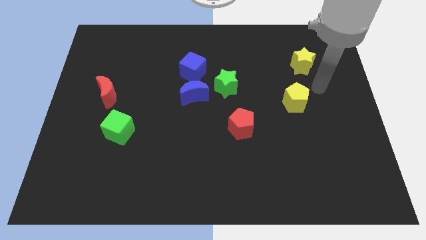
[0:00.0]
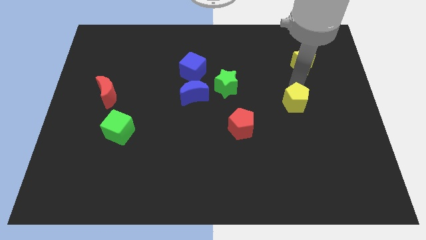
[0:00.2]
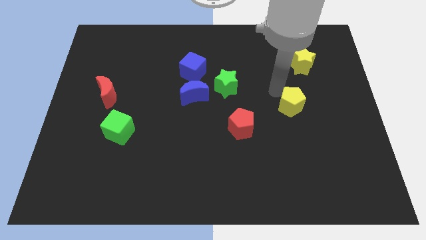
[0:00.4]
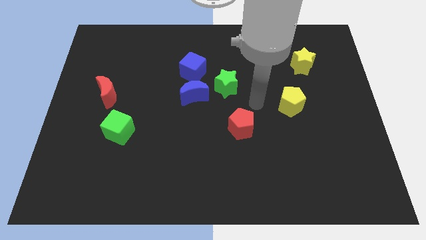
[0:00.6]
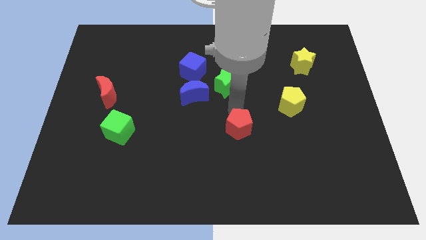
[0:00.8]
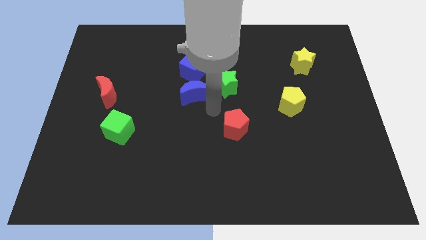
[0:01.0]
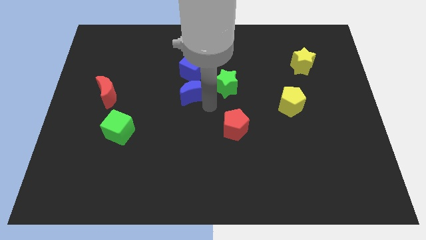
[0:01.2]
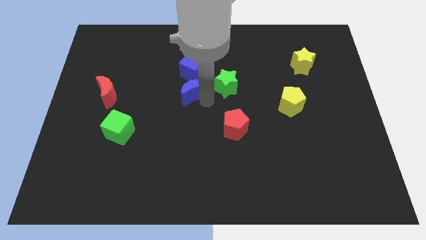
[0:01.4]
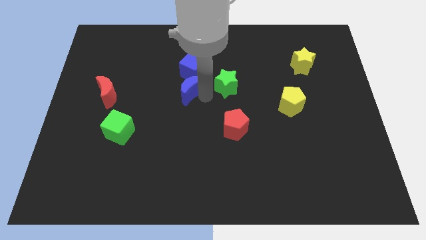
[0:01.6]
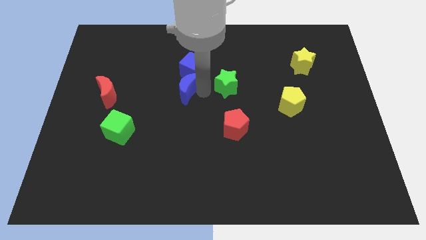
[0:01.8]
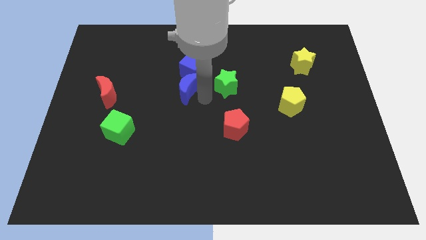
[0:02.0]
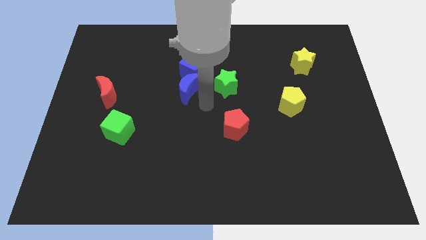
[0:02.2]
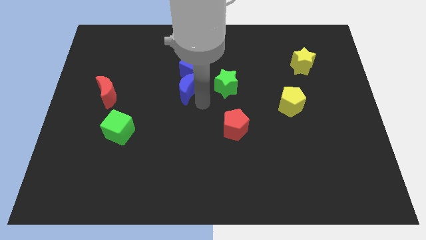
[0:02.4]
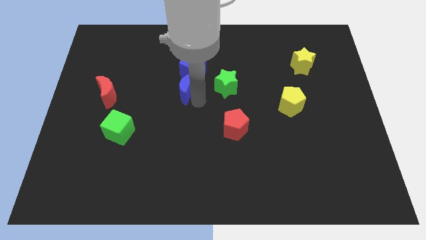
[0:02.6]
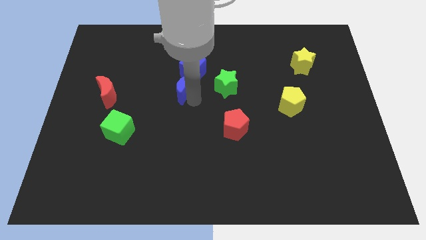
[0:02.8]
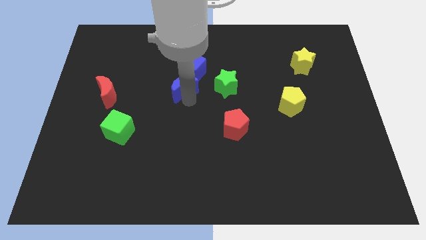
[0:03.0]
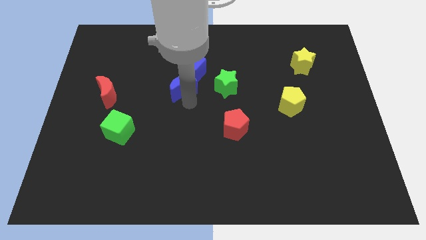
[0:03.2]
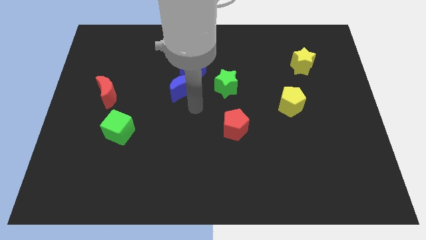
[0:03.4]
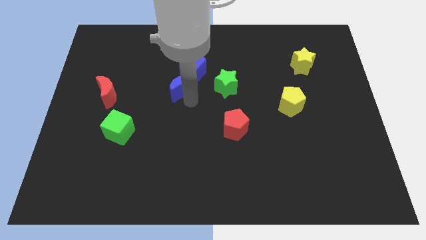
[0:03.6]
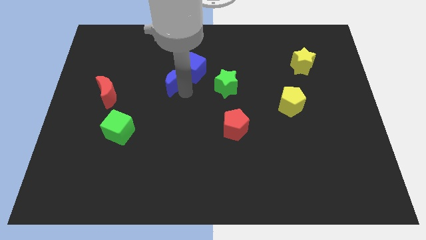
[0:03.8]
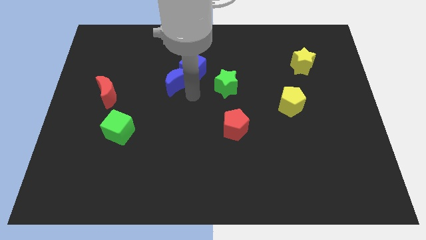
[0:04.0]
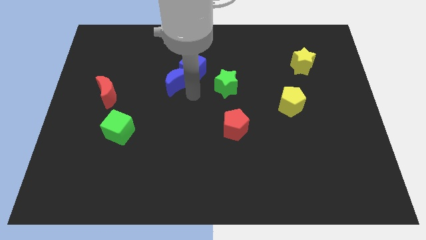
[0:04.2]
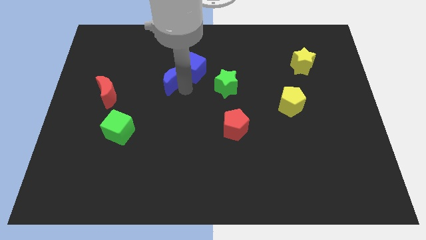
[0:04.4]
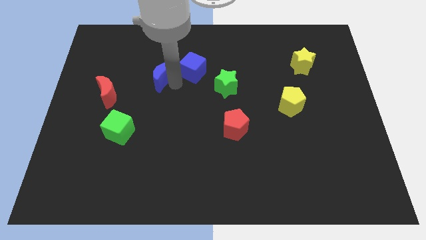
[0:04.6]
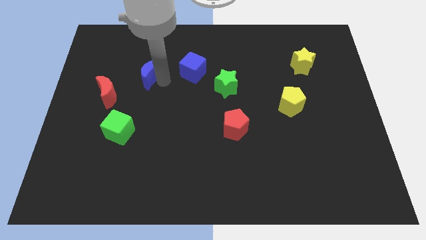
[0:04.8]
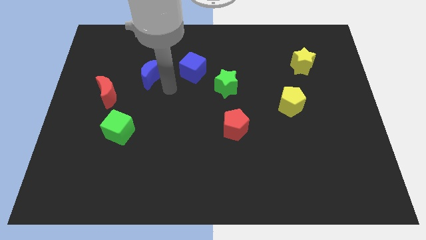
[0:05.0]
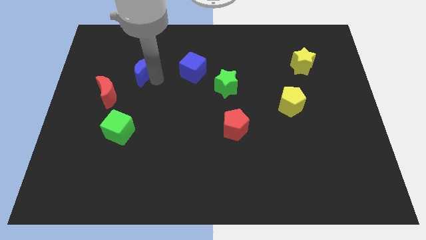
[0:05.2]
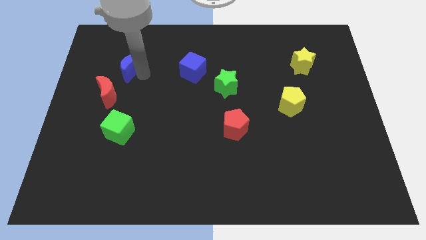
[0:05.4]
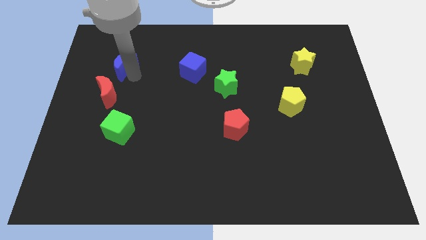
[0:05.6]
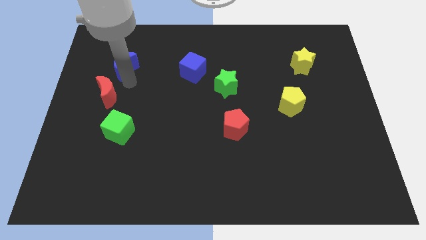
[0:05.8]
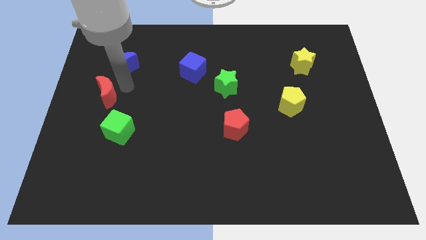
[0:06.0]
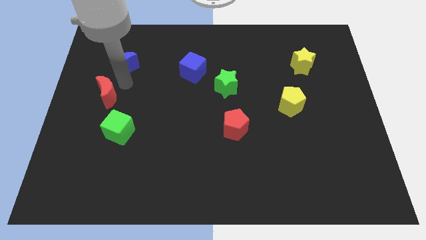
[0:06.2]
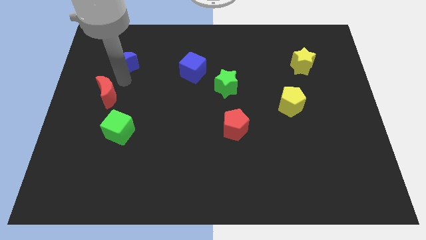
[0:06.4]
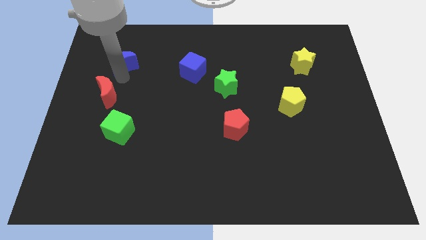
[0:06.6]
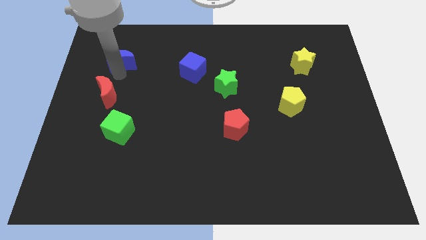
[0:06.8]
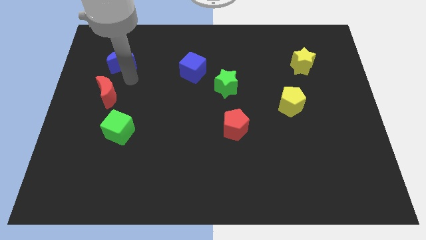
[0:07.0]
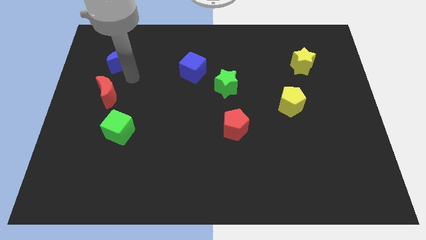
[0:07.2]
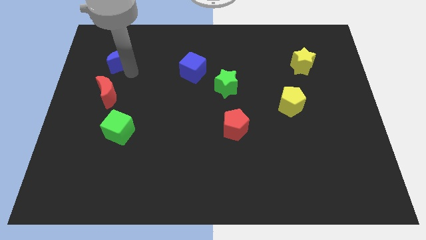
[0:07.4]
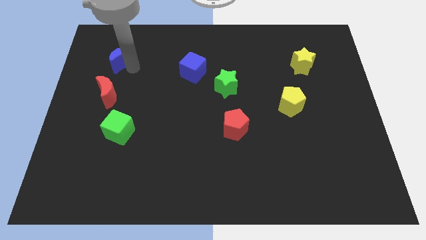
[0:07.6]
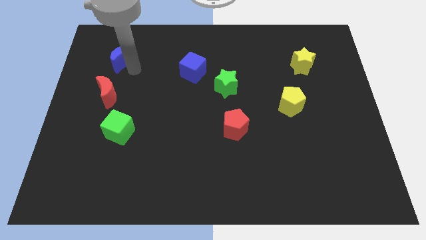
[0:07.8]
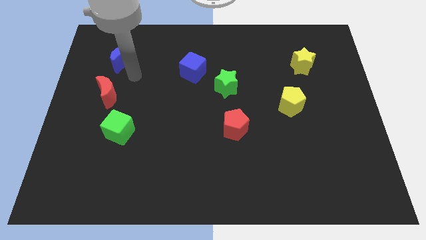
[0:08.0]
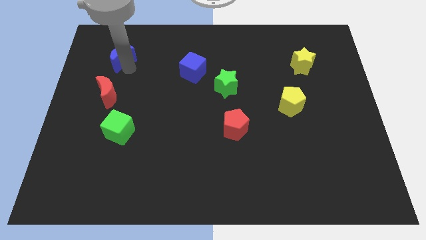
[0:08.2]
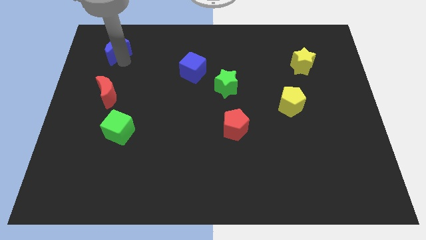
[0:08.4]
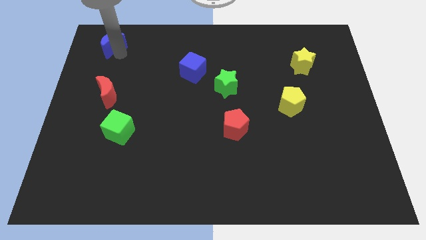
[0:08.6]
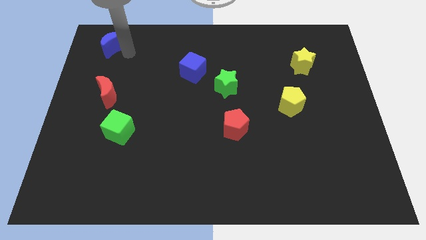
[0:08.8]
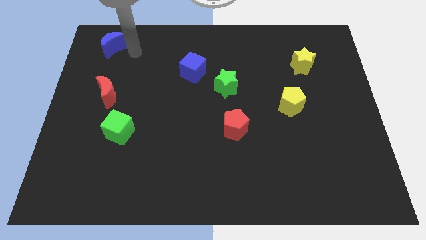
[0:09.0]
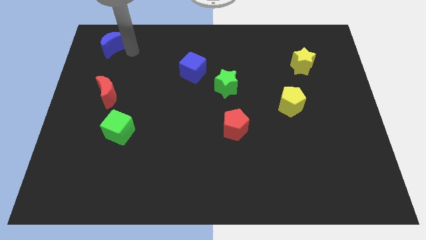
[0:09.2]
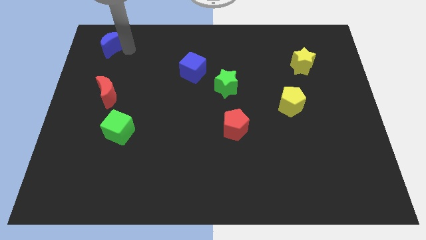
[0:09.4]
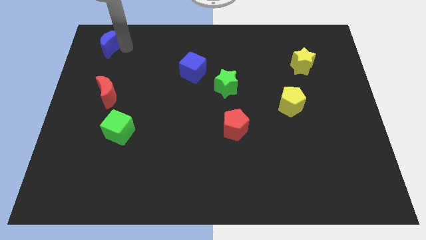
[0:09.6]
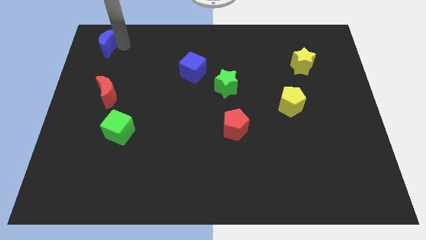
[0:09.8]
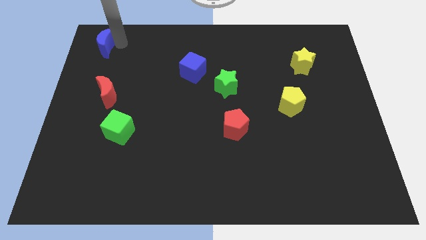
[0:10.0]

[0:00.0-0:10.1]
put the blue moon to the top left of the board

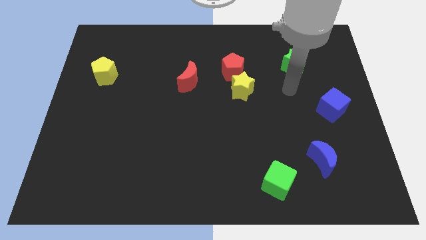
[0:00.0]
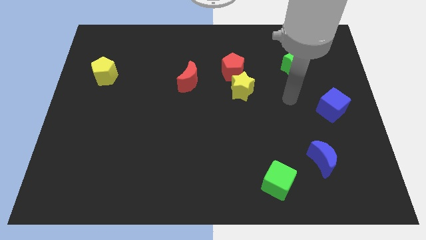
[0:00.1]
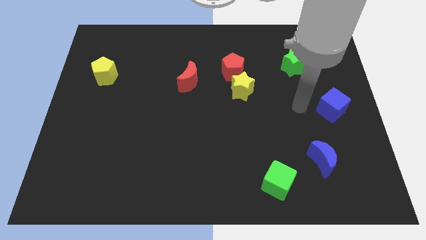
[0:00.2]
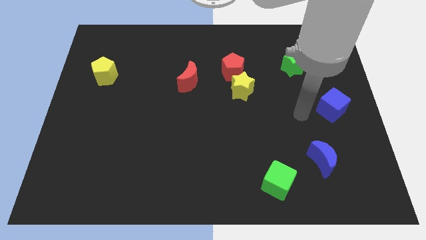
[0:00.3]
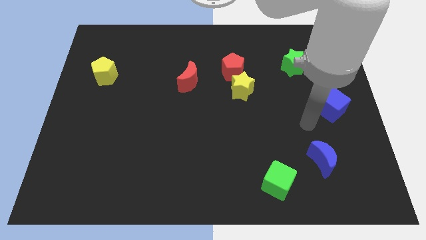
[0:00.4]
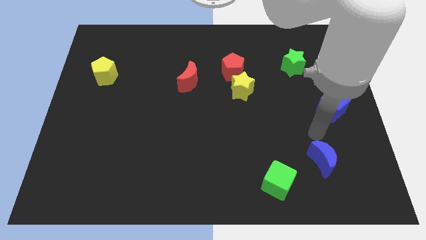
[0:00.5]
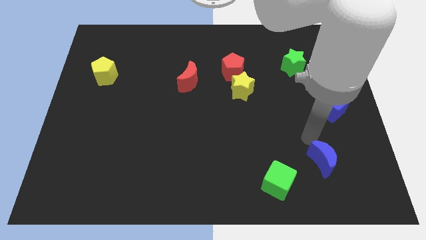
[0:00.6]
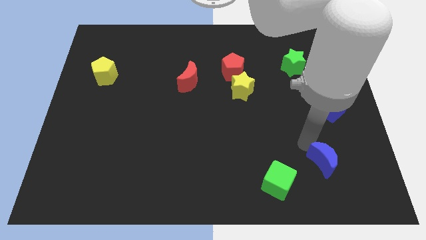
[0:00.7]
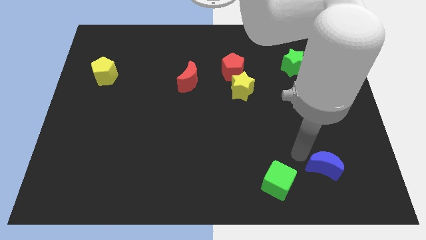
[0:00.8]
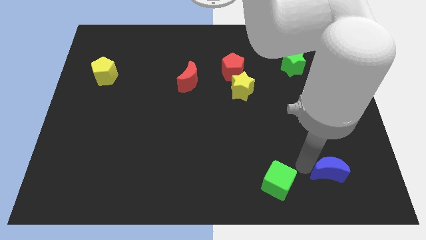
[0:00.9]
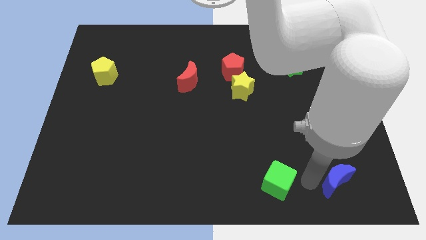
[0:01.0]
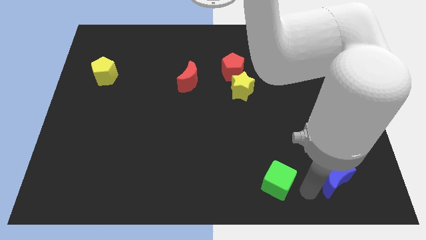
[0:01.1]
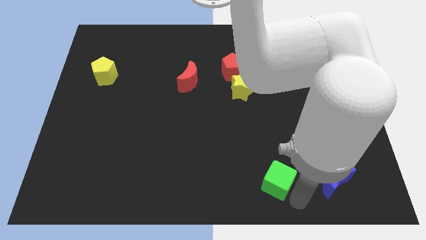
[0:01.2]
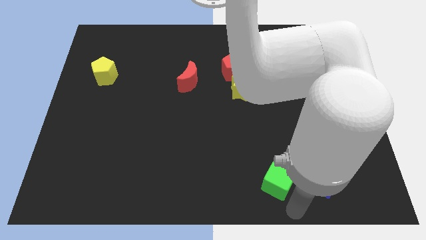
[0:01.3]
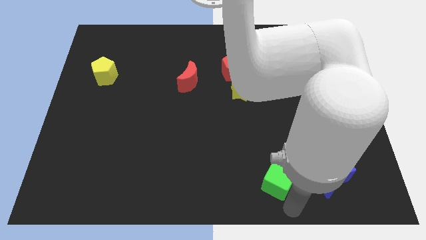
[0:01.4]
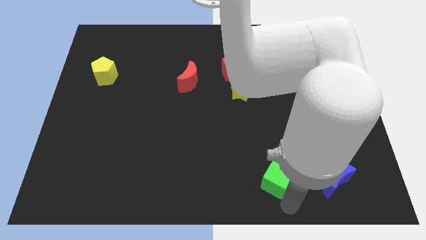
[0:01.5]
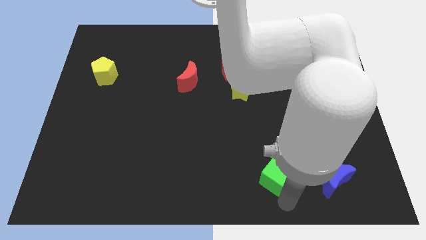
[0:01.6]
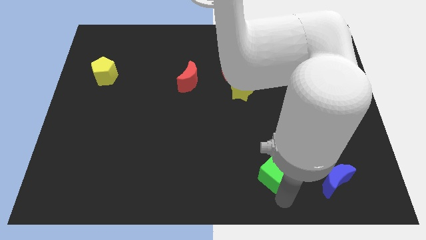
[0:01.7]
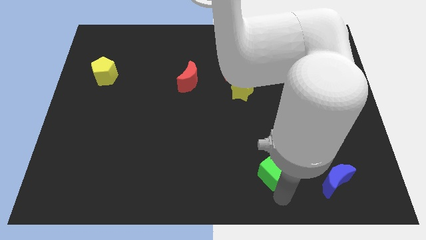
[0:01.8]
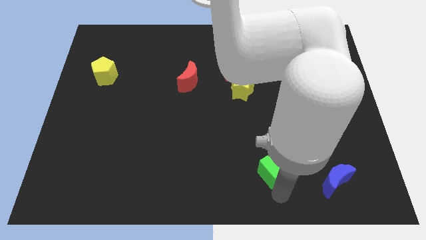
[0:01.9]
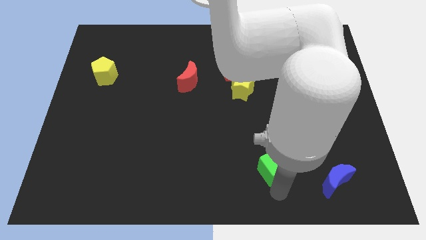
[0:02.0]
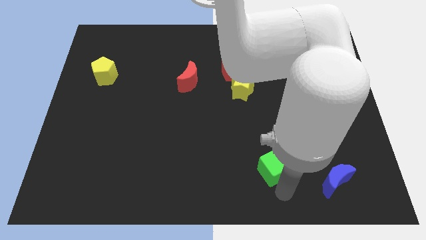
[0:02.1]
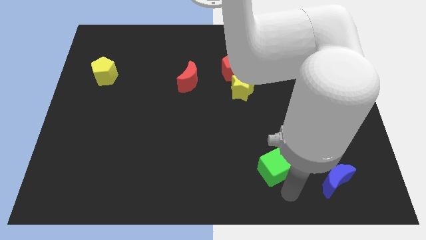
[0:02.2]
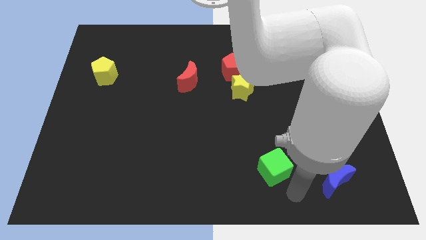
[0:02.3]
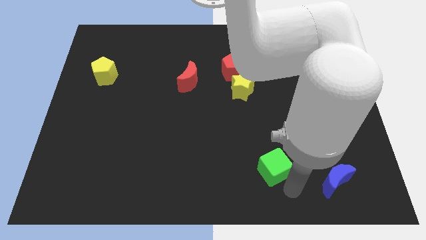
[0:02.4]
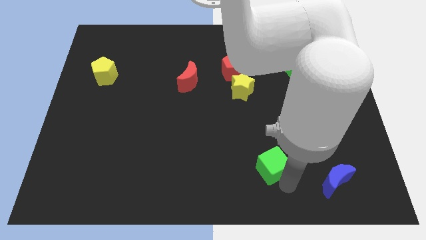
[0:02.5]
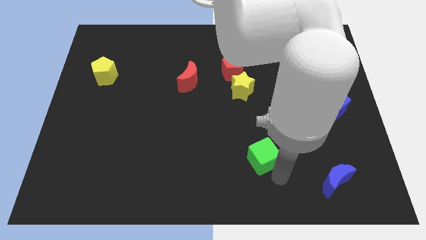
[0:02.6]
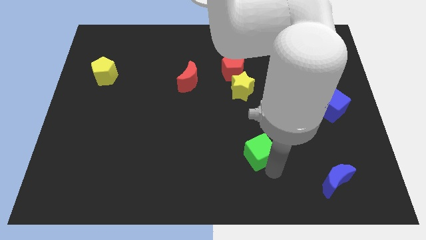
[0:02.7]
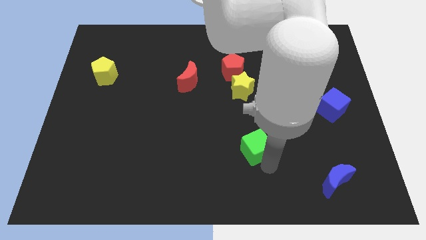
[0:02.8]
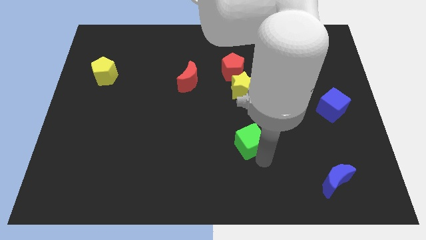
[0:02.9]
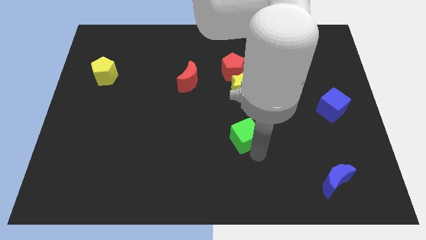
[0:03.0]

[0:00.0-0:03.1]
slide the green cube to the middle of the board
